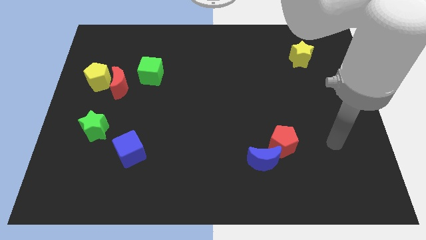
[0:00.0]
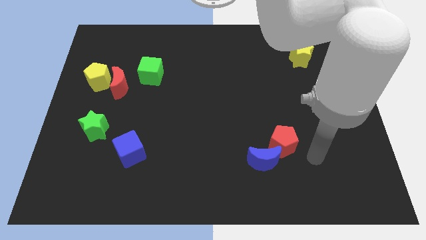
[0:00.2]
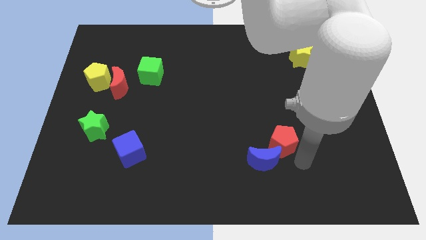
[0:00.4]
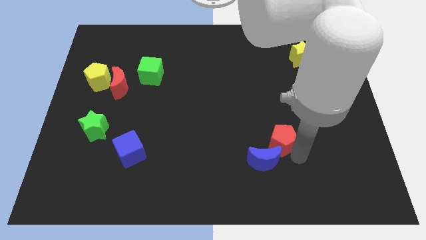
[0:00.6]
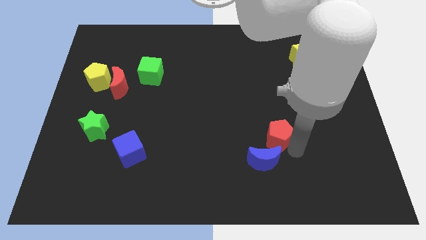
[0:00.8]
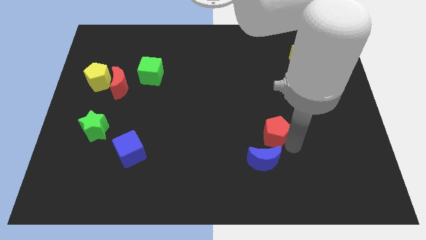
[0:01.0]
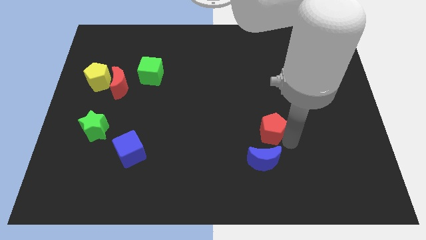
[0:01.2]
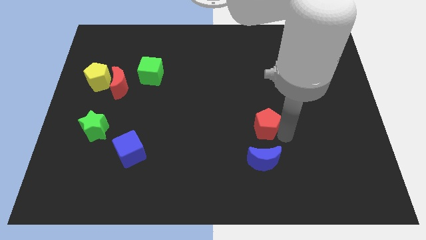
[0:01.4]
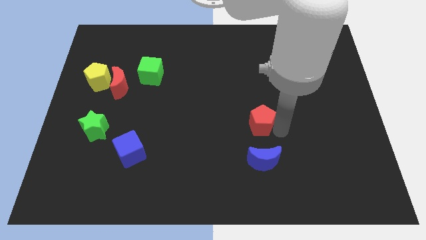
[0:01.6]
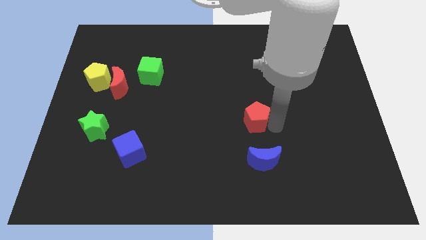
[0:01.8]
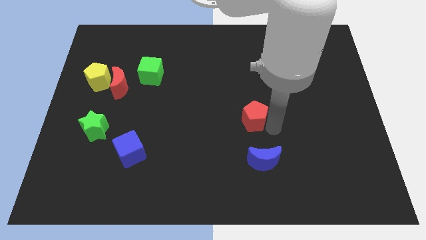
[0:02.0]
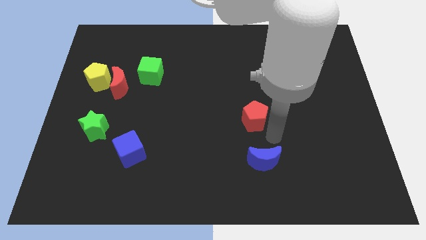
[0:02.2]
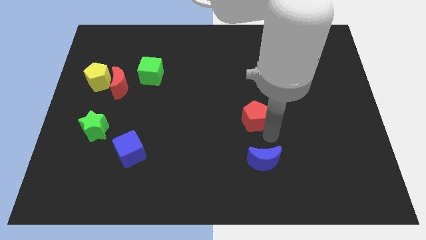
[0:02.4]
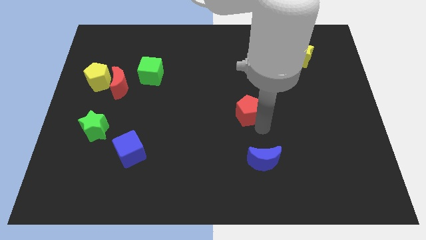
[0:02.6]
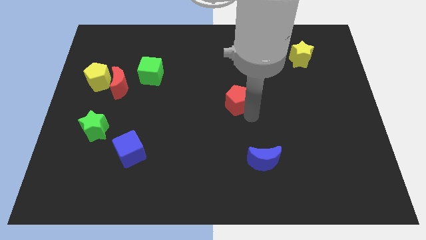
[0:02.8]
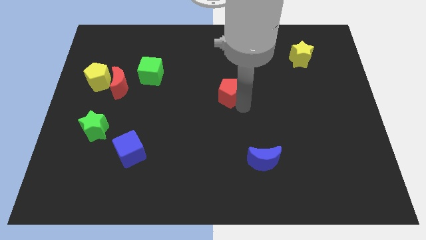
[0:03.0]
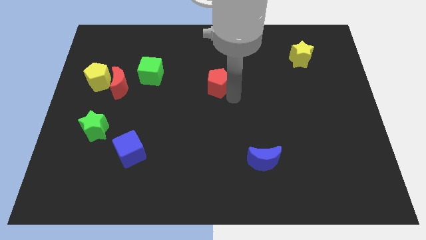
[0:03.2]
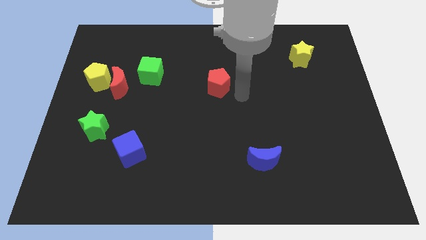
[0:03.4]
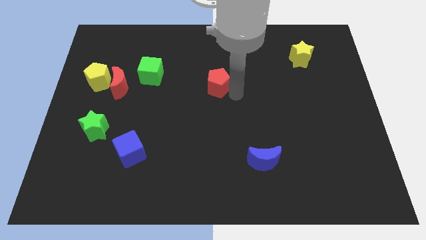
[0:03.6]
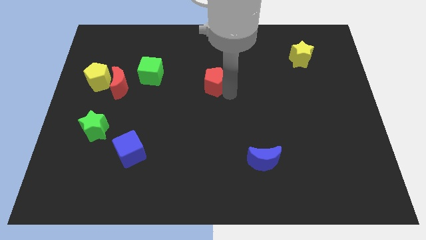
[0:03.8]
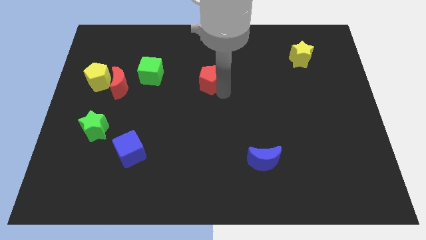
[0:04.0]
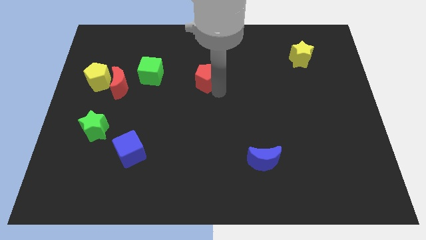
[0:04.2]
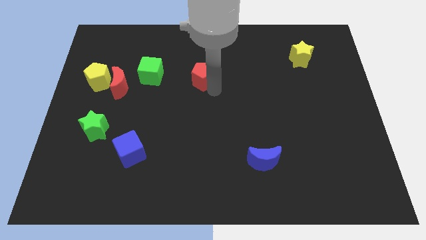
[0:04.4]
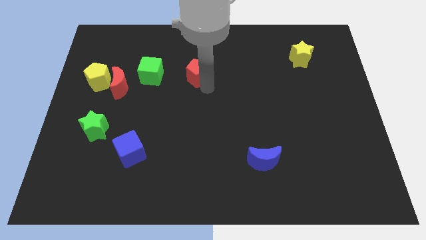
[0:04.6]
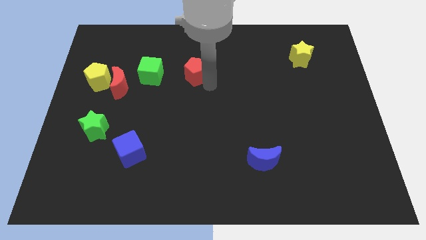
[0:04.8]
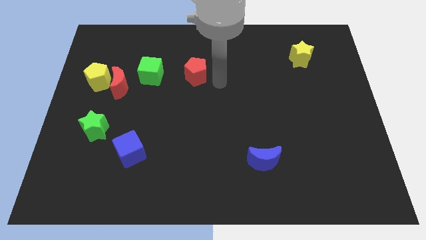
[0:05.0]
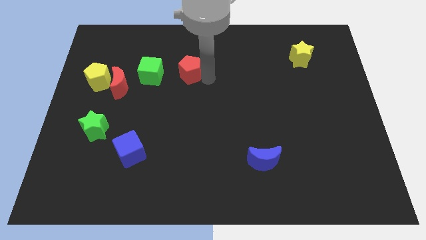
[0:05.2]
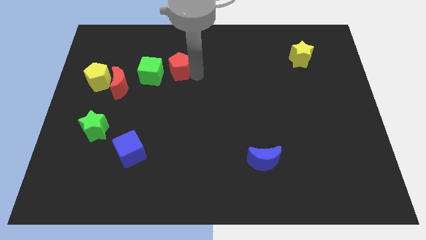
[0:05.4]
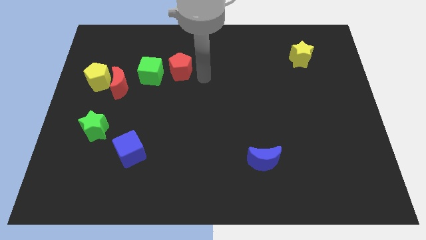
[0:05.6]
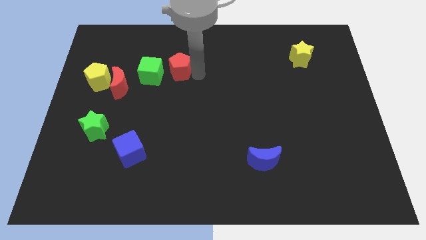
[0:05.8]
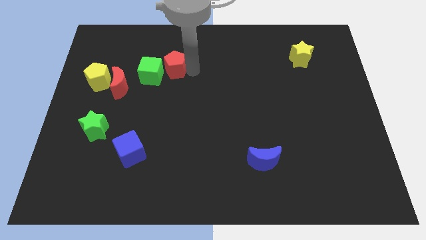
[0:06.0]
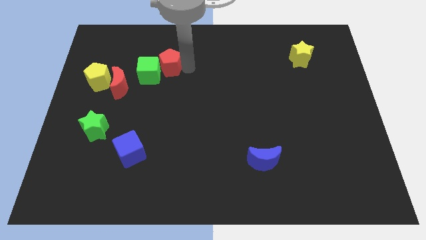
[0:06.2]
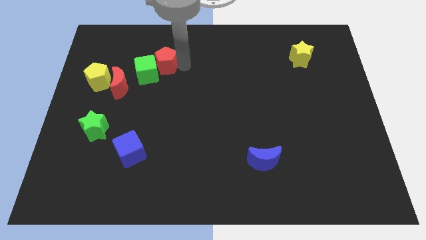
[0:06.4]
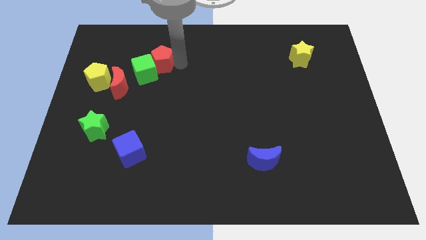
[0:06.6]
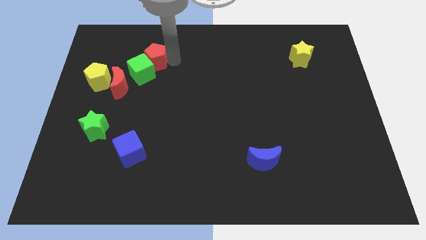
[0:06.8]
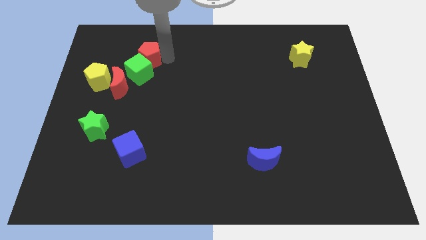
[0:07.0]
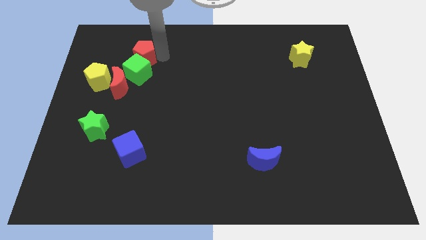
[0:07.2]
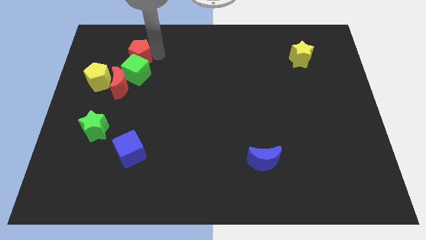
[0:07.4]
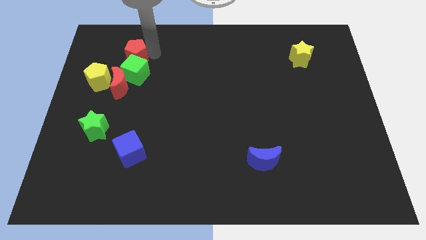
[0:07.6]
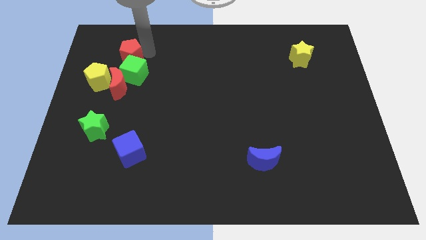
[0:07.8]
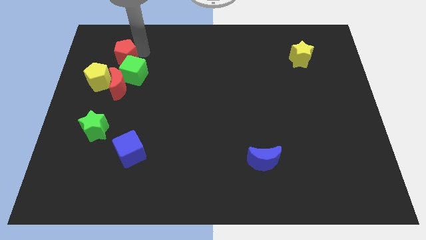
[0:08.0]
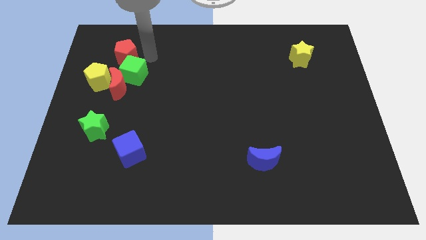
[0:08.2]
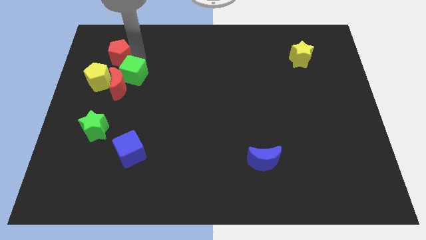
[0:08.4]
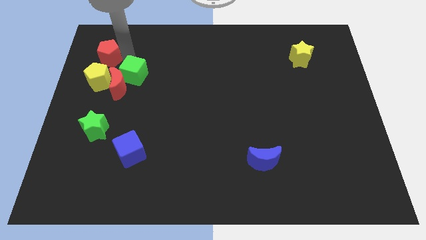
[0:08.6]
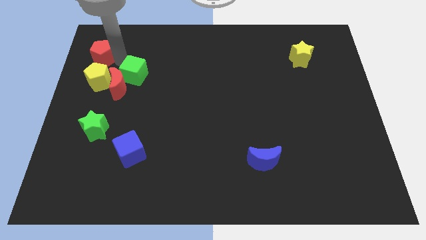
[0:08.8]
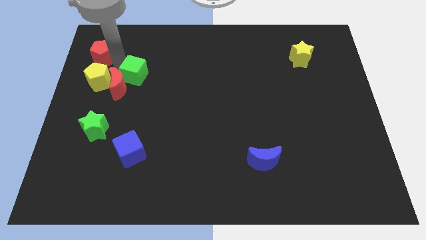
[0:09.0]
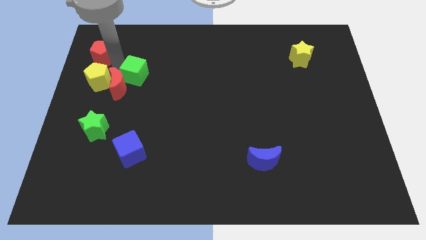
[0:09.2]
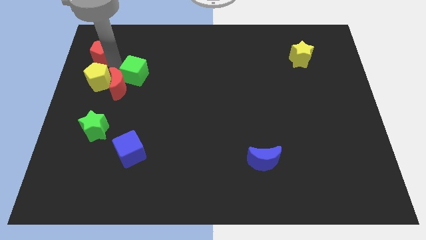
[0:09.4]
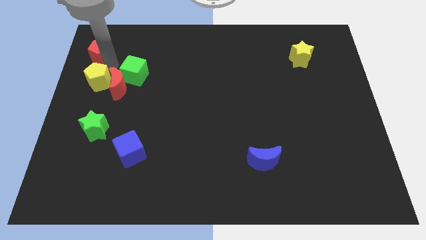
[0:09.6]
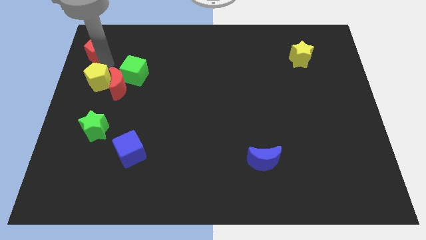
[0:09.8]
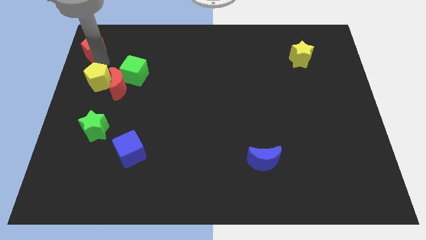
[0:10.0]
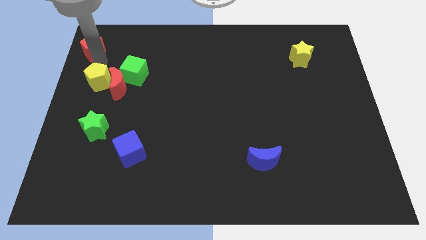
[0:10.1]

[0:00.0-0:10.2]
push the red pentagon to the top left

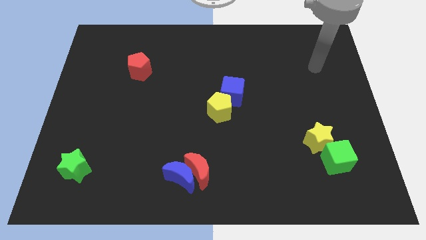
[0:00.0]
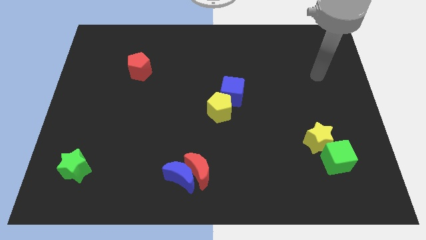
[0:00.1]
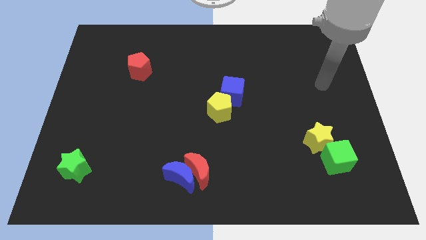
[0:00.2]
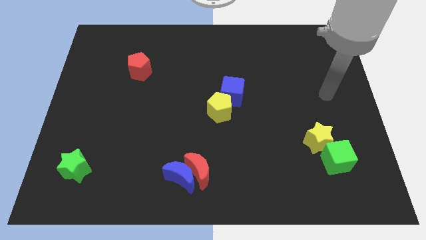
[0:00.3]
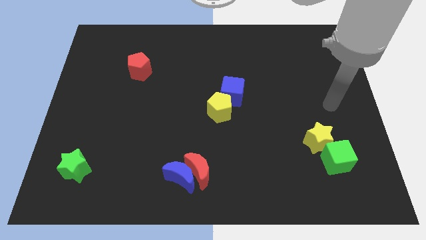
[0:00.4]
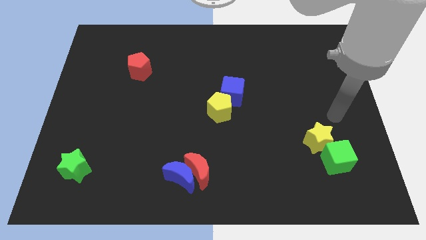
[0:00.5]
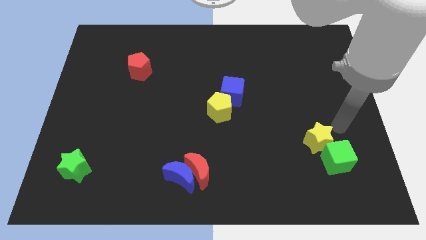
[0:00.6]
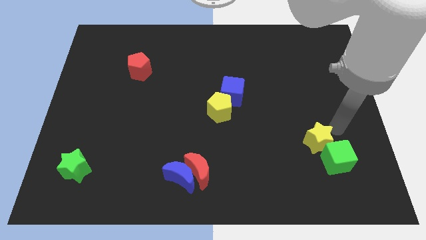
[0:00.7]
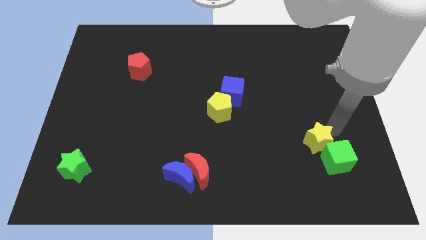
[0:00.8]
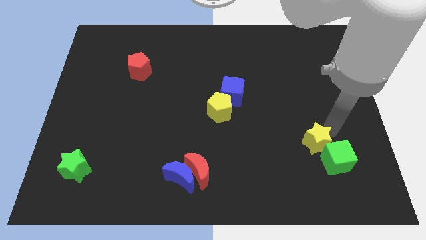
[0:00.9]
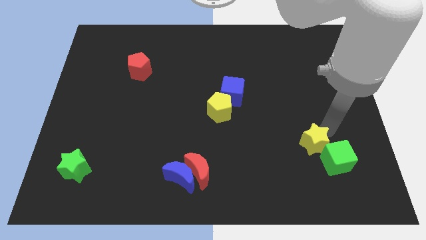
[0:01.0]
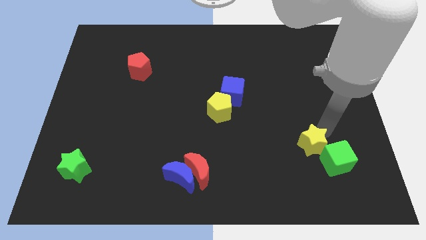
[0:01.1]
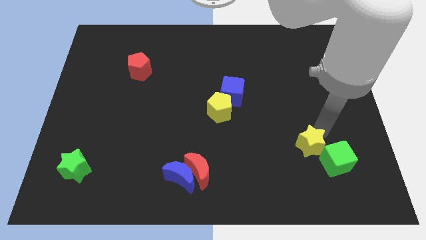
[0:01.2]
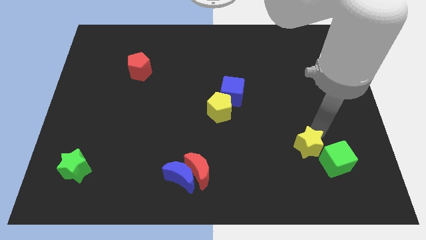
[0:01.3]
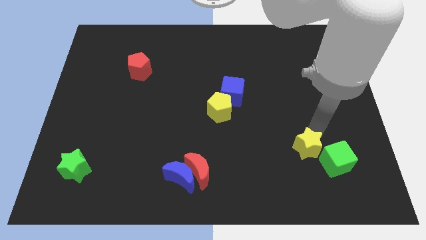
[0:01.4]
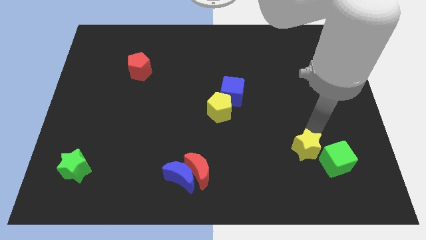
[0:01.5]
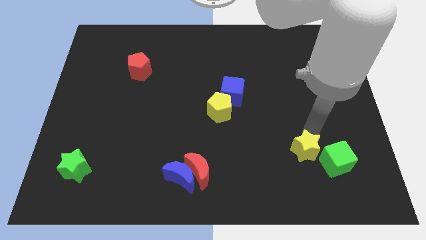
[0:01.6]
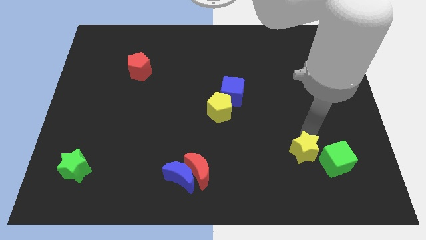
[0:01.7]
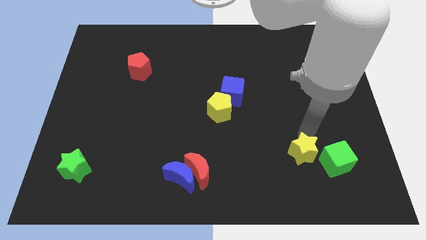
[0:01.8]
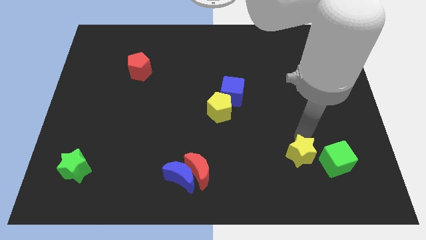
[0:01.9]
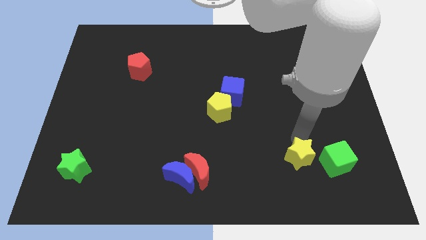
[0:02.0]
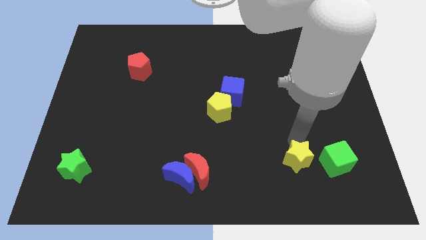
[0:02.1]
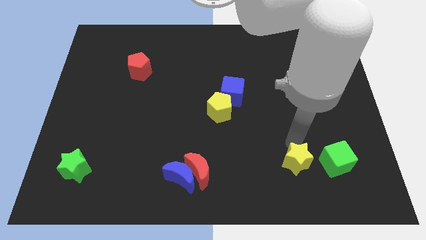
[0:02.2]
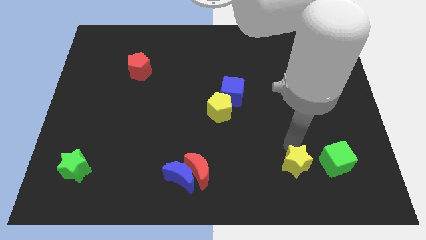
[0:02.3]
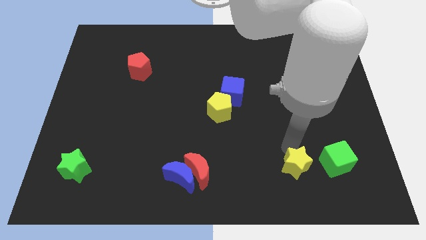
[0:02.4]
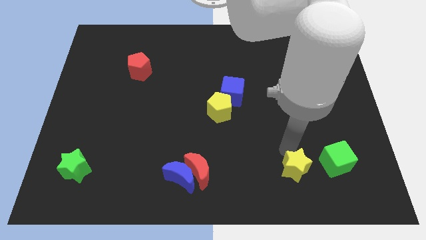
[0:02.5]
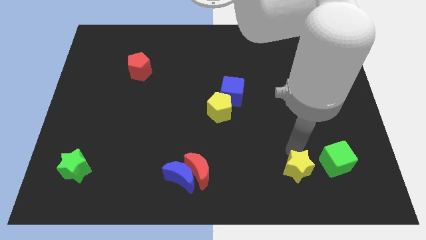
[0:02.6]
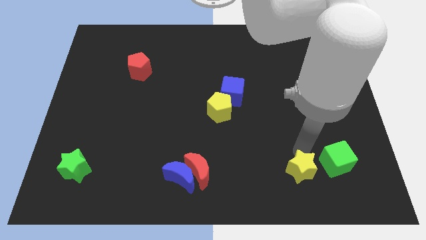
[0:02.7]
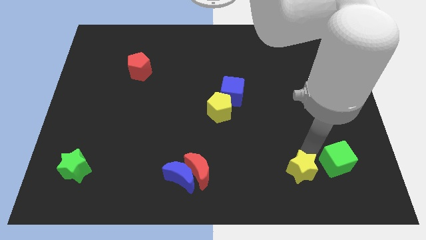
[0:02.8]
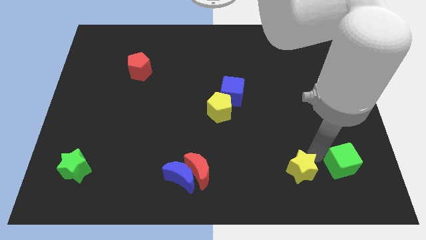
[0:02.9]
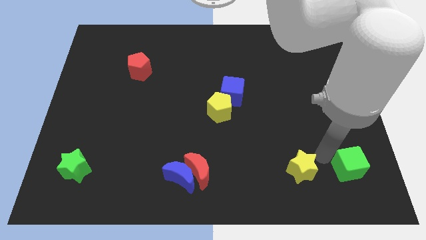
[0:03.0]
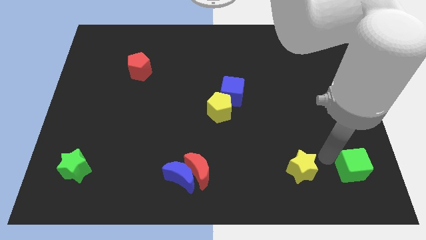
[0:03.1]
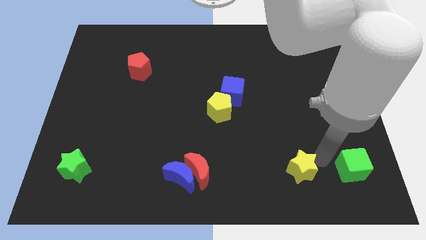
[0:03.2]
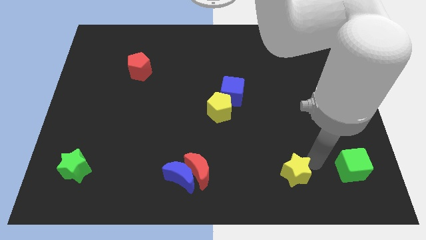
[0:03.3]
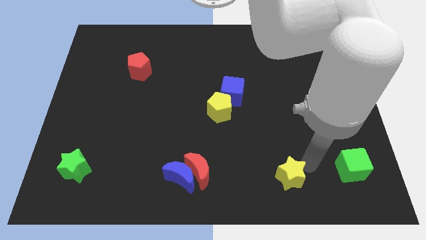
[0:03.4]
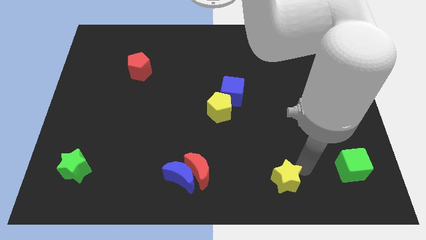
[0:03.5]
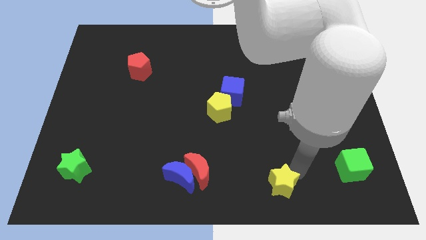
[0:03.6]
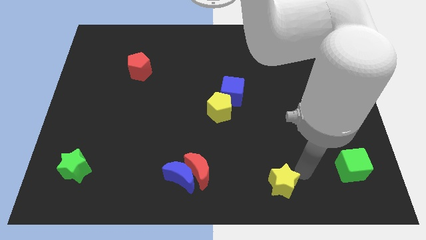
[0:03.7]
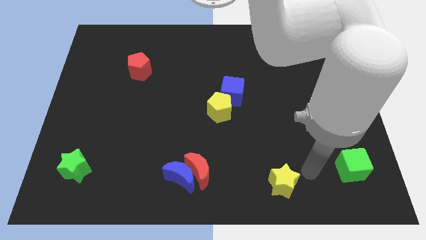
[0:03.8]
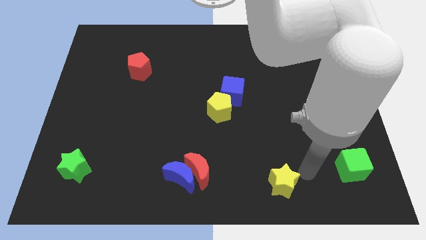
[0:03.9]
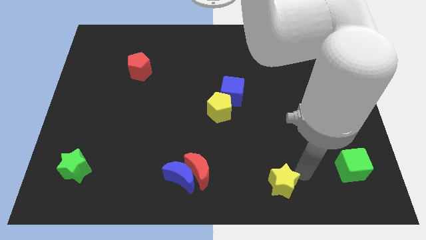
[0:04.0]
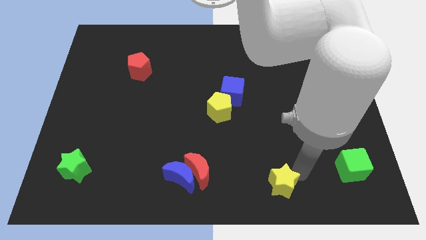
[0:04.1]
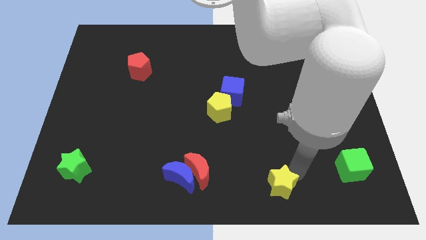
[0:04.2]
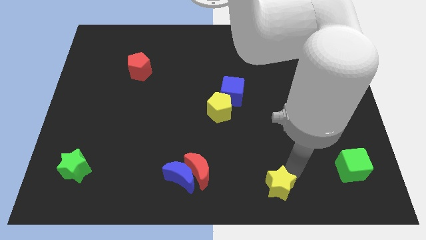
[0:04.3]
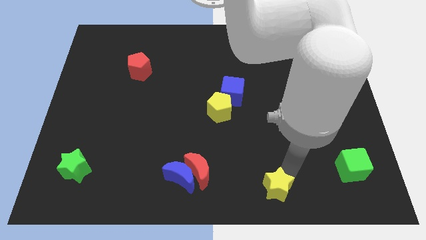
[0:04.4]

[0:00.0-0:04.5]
move the yellow star to the bottom side
